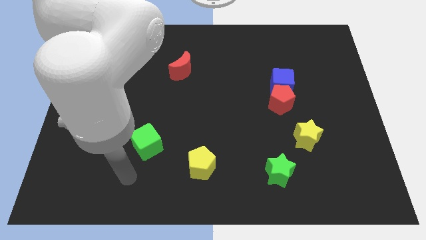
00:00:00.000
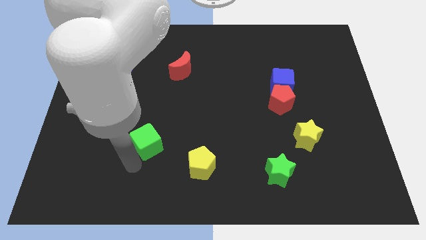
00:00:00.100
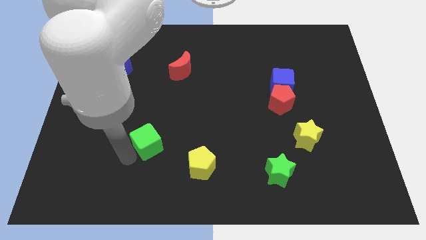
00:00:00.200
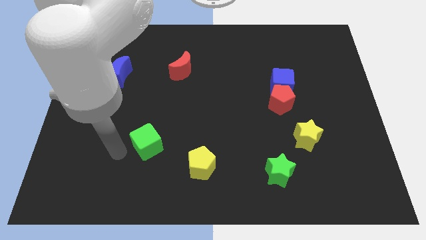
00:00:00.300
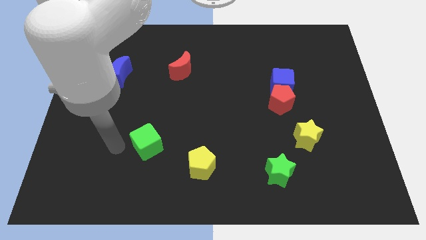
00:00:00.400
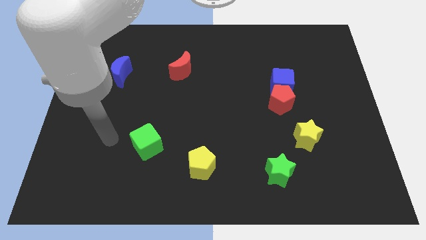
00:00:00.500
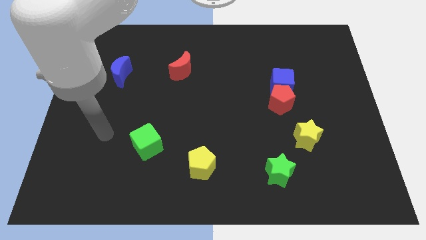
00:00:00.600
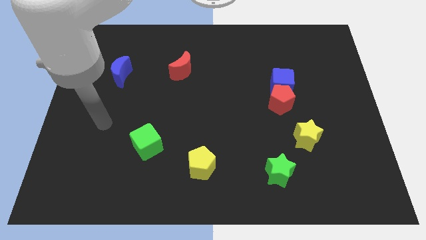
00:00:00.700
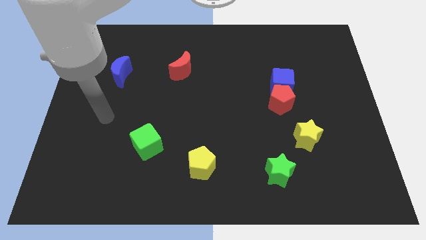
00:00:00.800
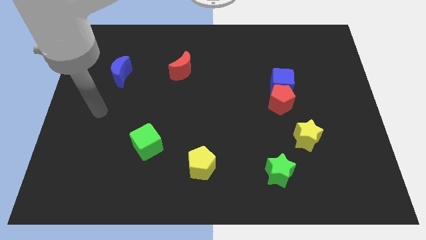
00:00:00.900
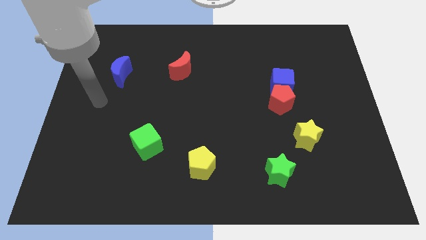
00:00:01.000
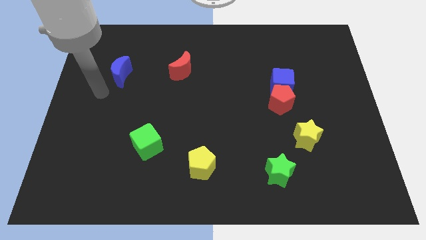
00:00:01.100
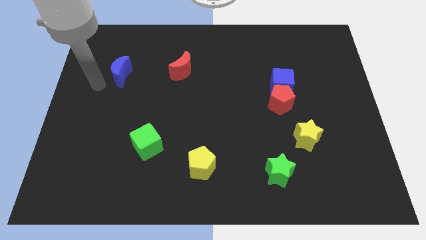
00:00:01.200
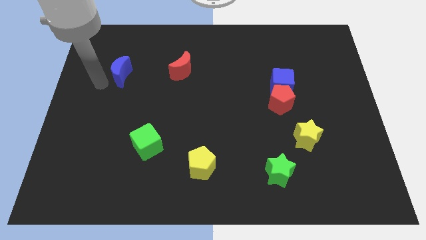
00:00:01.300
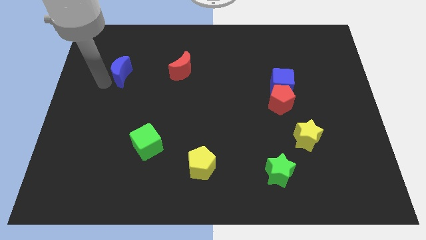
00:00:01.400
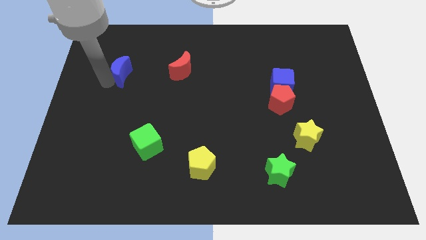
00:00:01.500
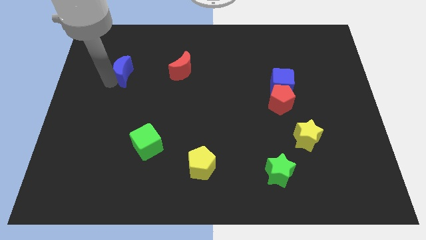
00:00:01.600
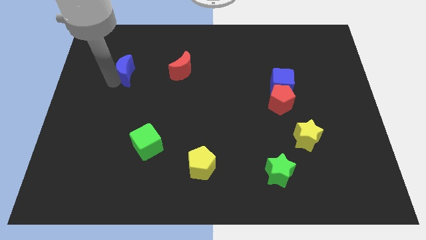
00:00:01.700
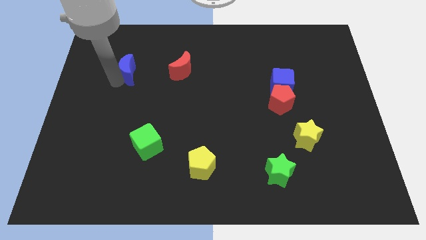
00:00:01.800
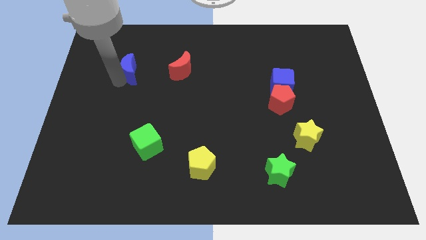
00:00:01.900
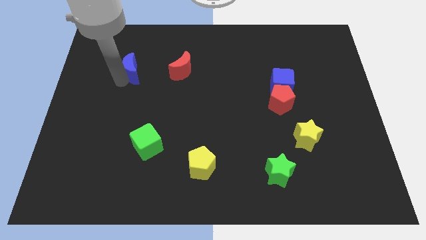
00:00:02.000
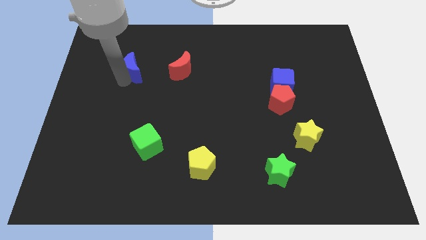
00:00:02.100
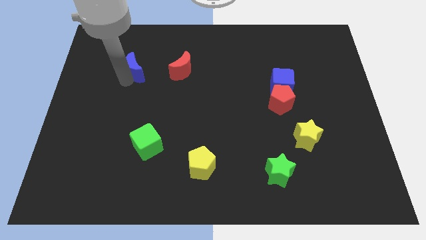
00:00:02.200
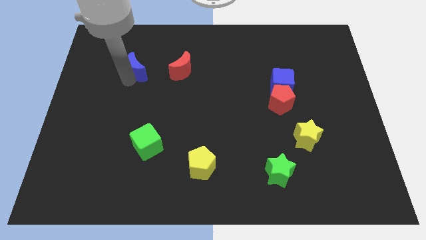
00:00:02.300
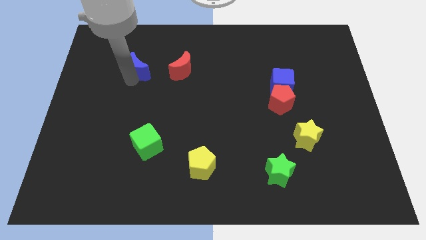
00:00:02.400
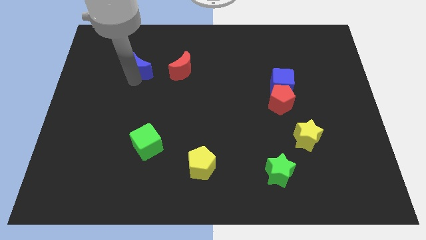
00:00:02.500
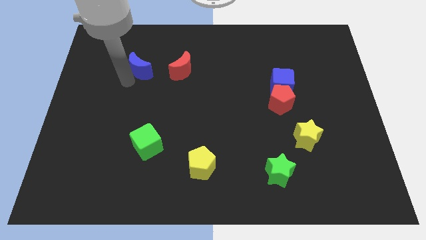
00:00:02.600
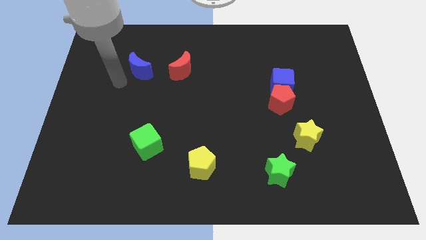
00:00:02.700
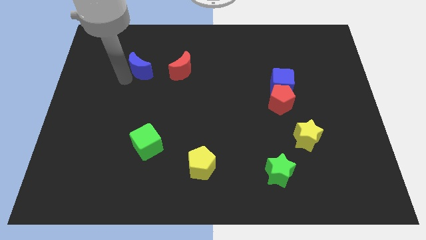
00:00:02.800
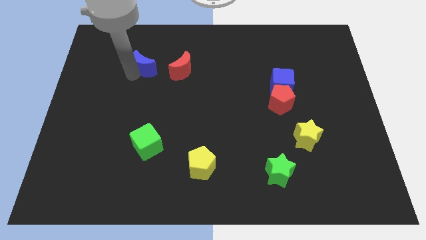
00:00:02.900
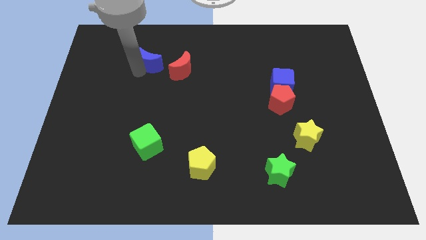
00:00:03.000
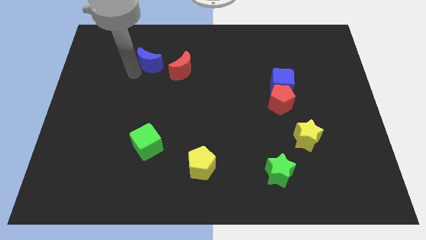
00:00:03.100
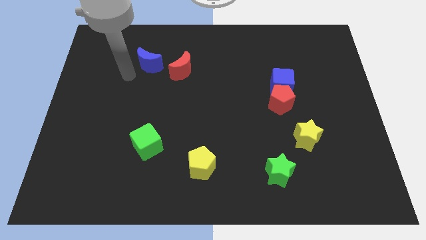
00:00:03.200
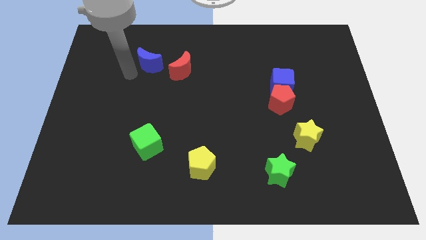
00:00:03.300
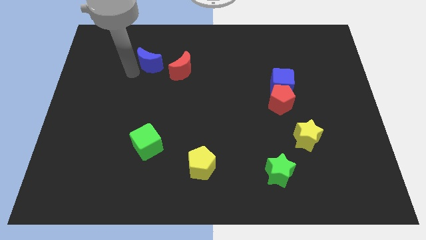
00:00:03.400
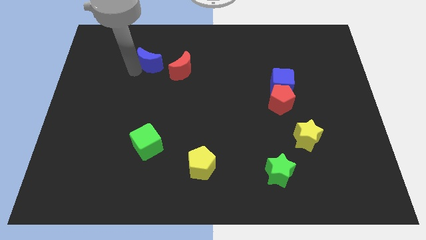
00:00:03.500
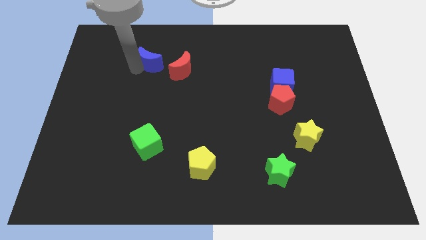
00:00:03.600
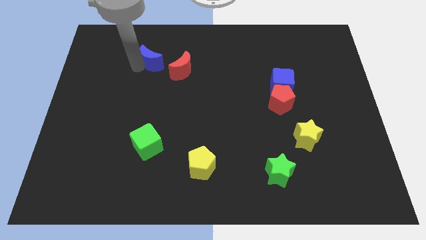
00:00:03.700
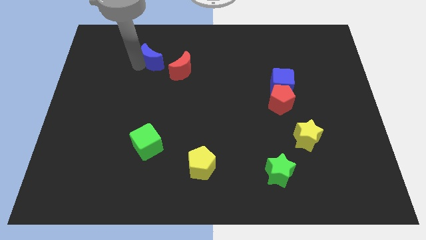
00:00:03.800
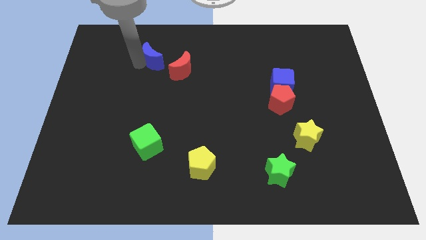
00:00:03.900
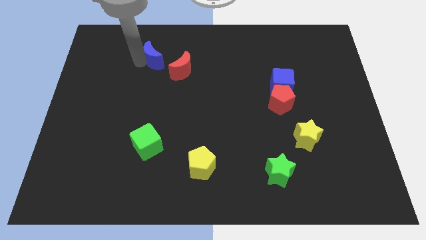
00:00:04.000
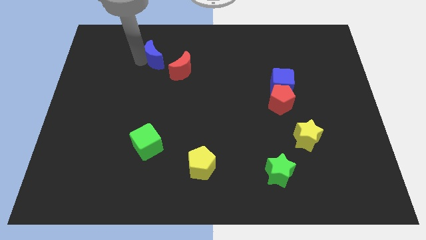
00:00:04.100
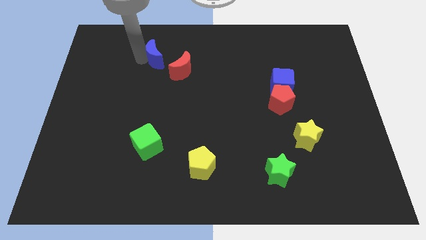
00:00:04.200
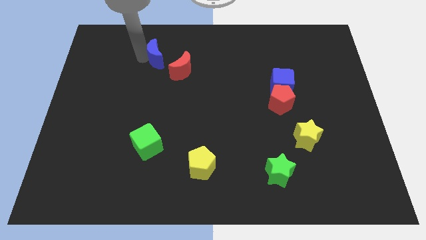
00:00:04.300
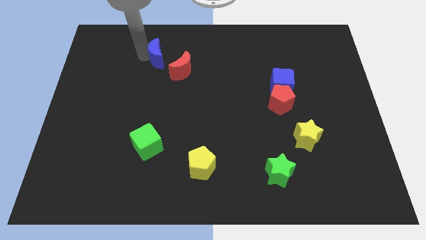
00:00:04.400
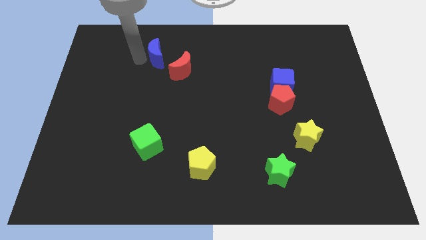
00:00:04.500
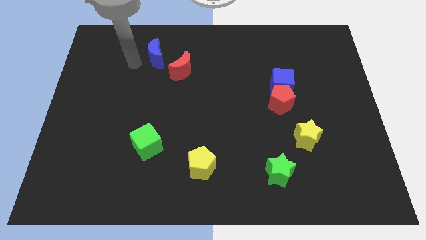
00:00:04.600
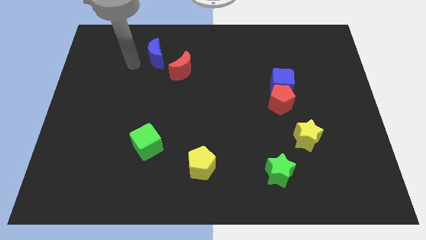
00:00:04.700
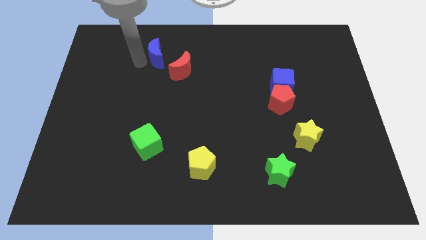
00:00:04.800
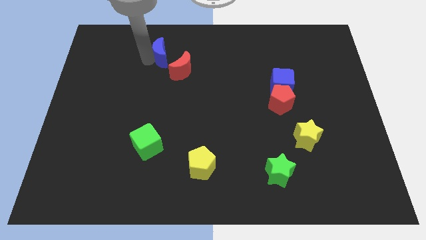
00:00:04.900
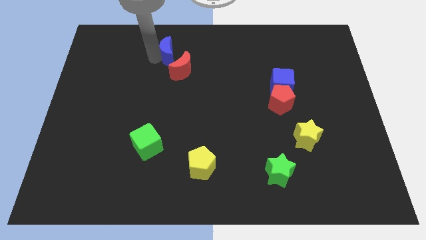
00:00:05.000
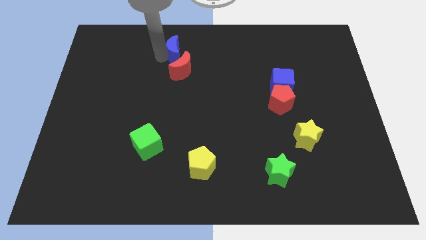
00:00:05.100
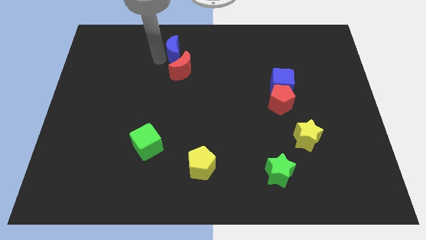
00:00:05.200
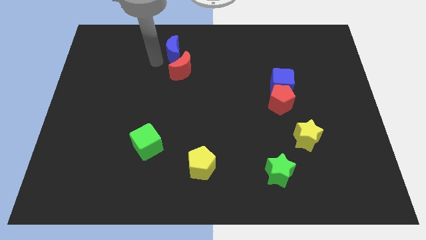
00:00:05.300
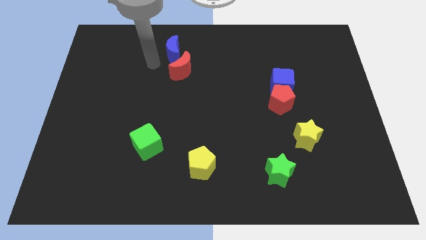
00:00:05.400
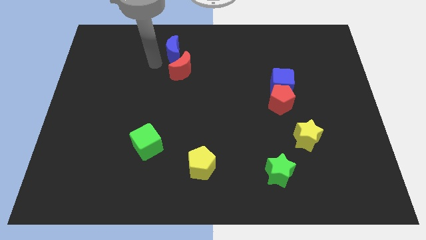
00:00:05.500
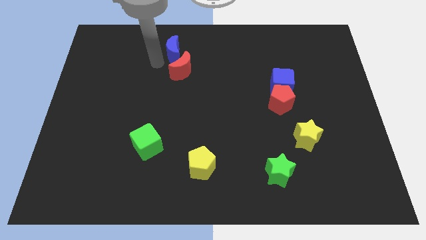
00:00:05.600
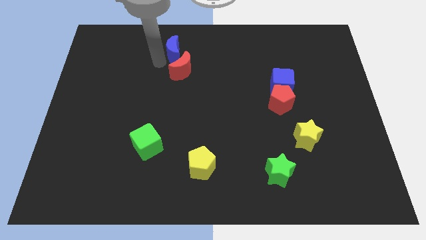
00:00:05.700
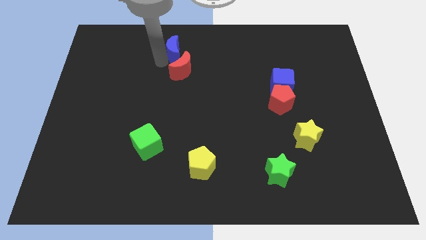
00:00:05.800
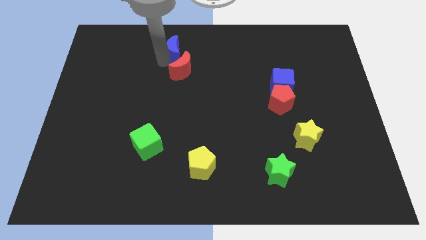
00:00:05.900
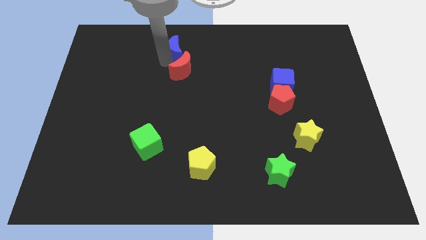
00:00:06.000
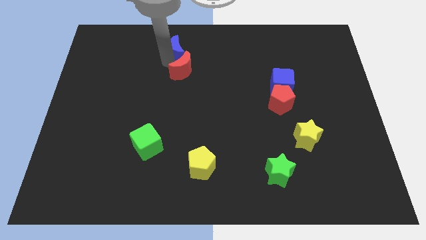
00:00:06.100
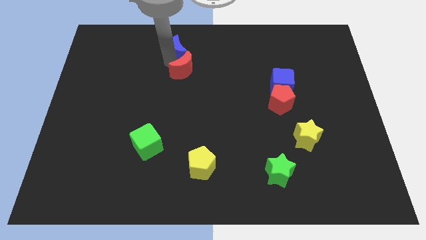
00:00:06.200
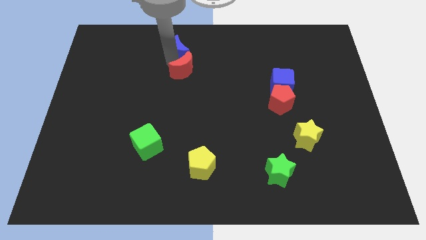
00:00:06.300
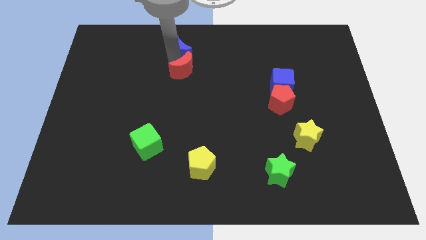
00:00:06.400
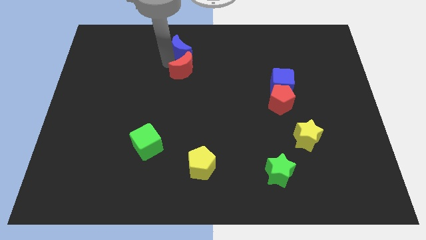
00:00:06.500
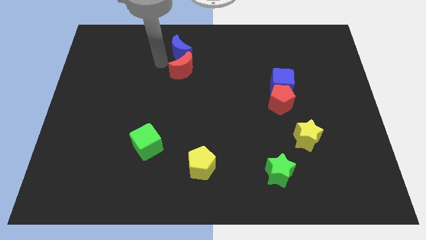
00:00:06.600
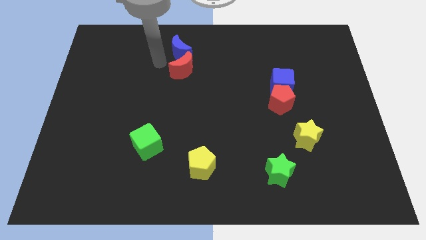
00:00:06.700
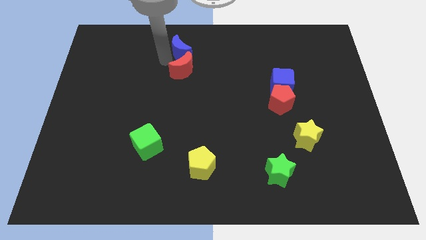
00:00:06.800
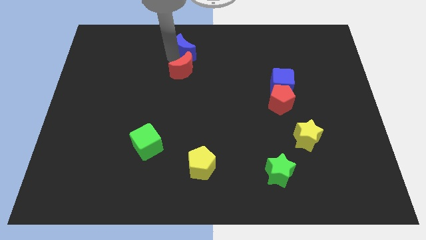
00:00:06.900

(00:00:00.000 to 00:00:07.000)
push the blue moon to the towards your base
